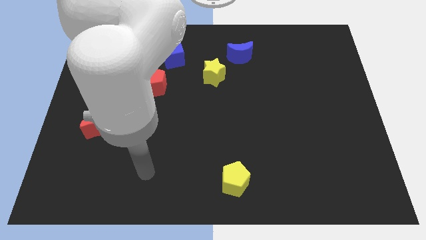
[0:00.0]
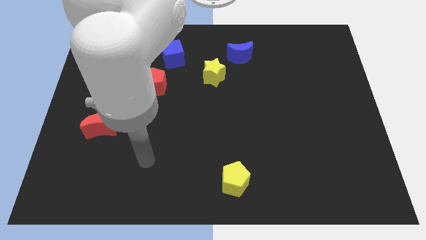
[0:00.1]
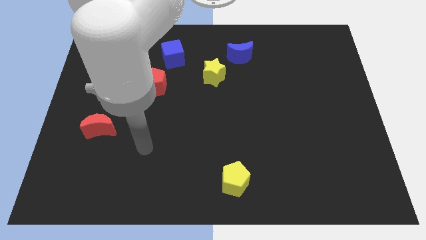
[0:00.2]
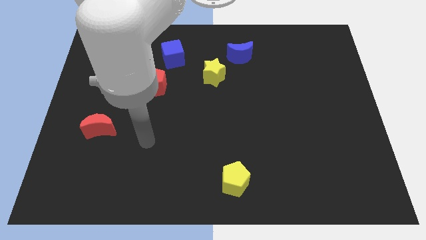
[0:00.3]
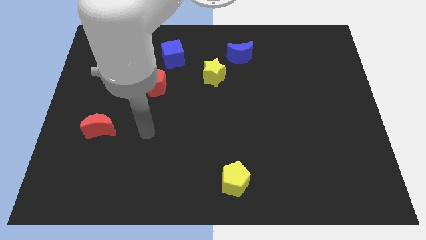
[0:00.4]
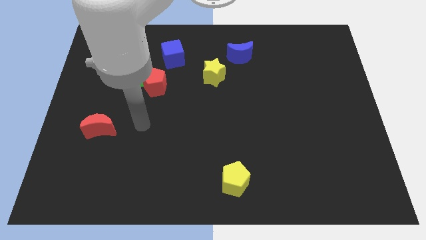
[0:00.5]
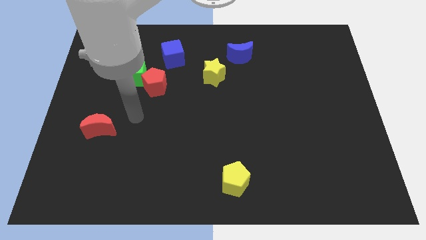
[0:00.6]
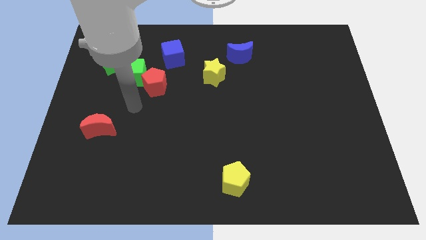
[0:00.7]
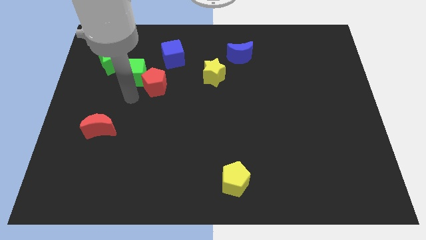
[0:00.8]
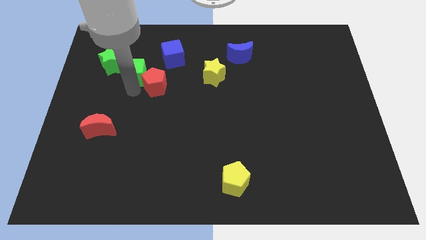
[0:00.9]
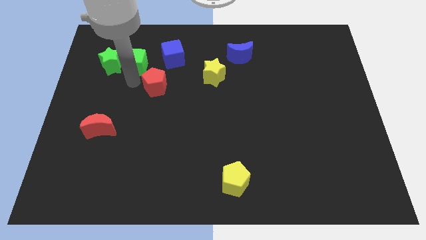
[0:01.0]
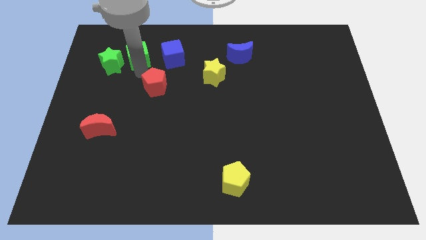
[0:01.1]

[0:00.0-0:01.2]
move the red pentagon away from the green cube

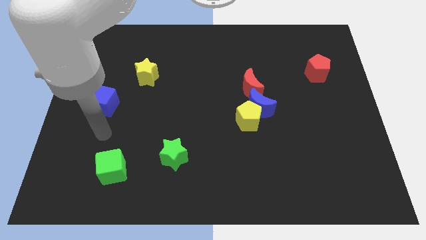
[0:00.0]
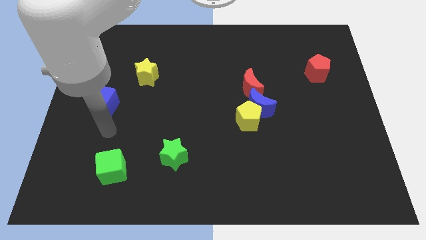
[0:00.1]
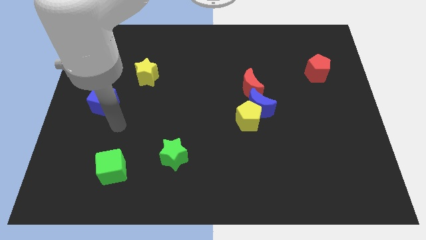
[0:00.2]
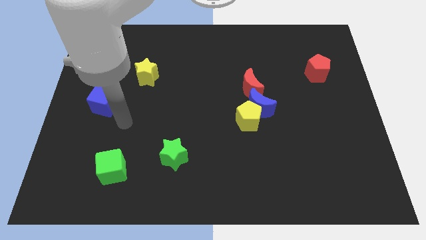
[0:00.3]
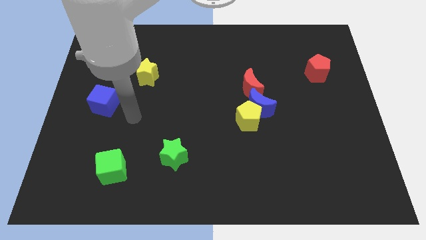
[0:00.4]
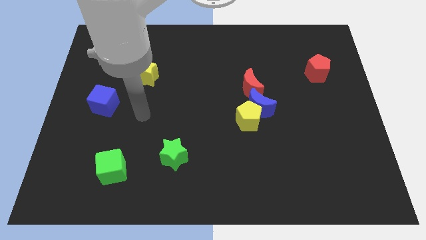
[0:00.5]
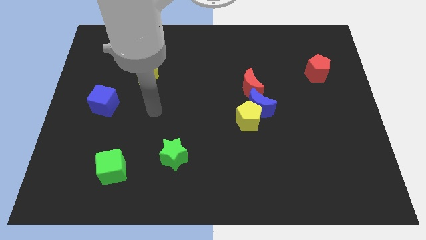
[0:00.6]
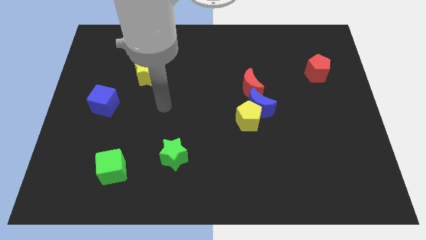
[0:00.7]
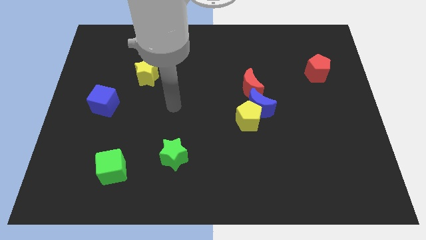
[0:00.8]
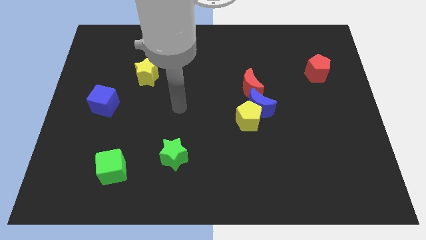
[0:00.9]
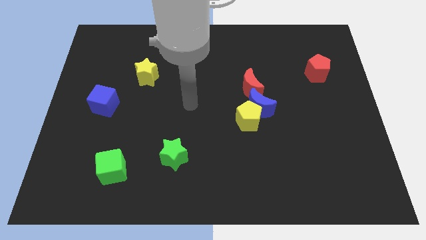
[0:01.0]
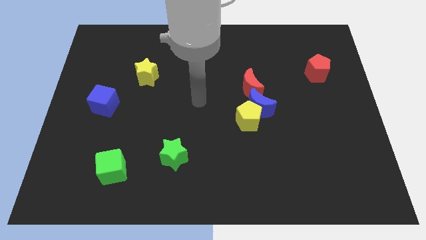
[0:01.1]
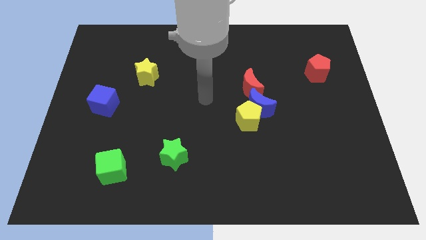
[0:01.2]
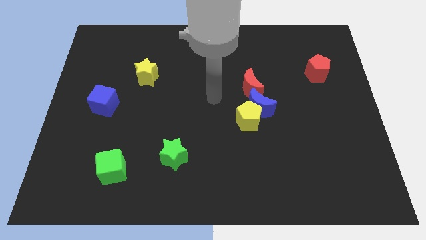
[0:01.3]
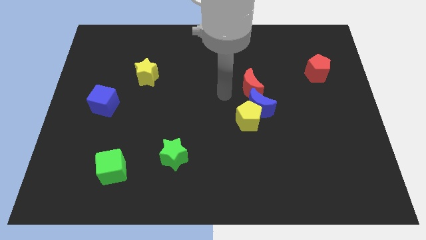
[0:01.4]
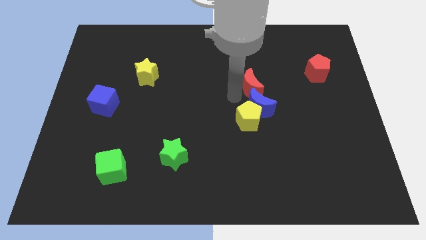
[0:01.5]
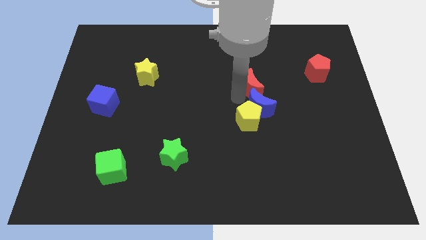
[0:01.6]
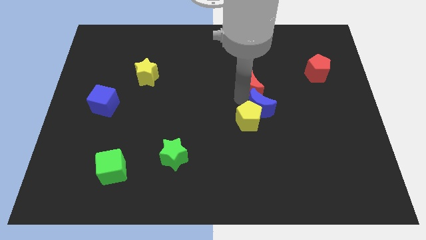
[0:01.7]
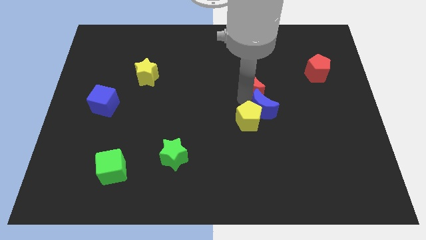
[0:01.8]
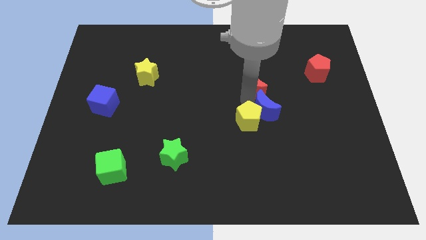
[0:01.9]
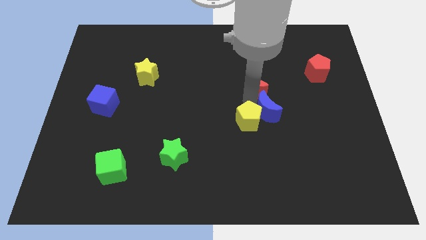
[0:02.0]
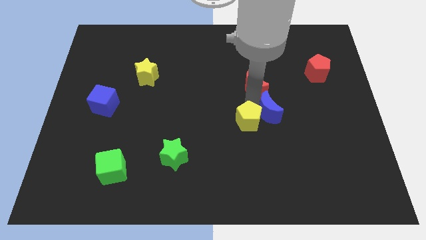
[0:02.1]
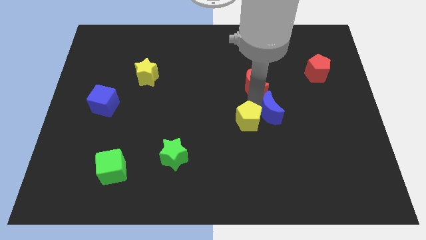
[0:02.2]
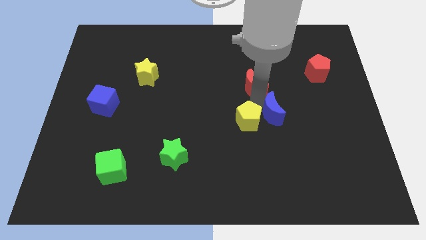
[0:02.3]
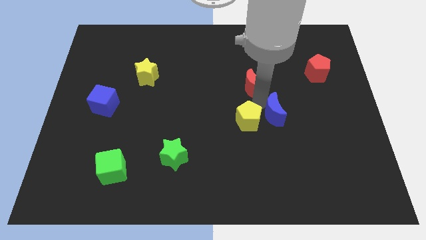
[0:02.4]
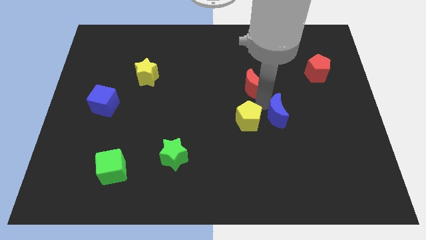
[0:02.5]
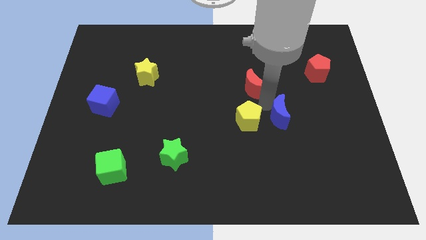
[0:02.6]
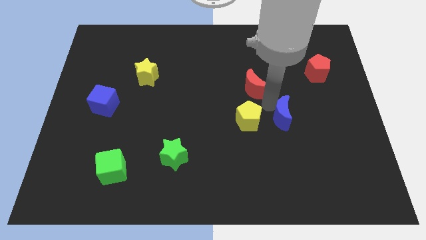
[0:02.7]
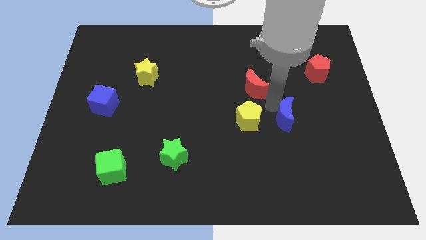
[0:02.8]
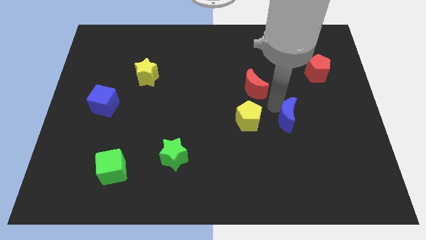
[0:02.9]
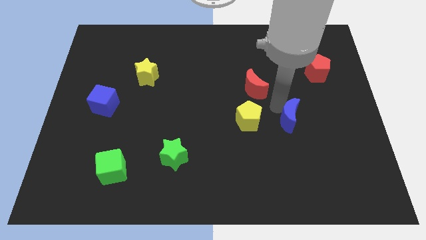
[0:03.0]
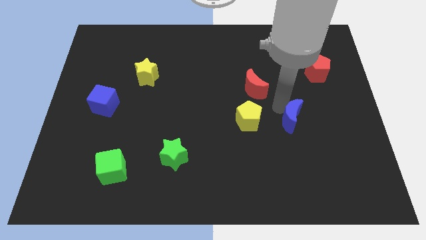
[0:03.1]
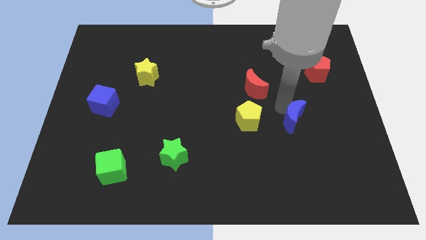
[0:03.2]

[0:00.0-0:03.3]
move the blue moon away from the yellow pentagon and red moon

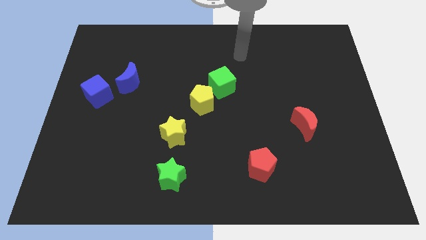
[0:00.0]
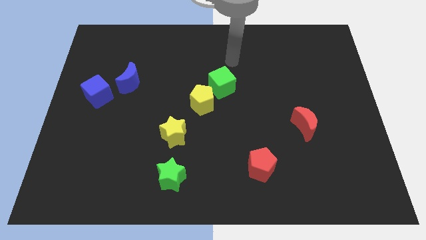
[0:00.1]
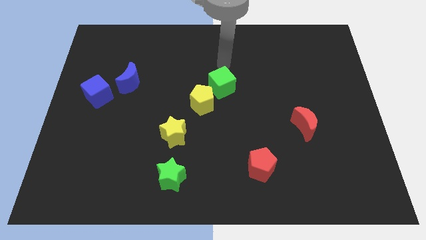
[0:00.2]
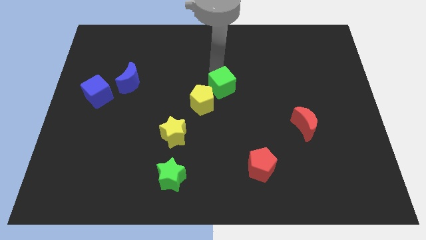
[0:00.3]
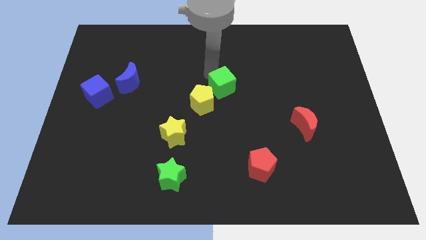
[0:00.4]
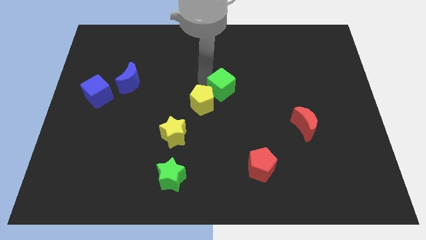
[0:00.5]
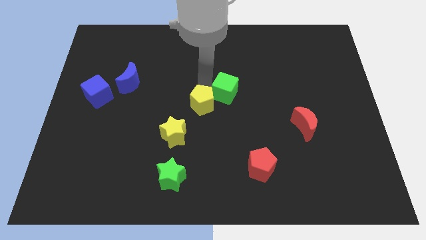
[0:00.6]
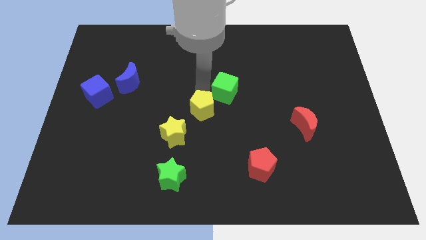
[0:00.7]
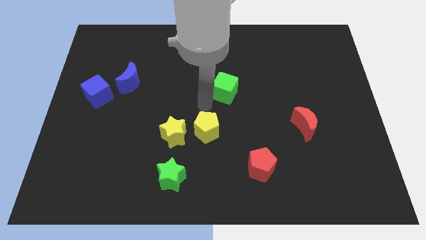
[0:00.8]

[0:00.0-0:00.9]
separate the green cube from the yellow pentagon

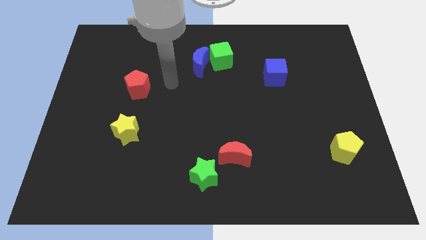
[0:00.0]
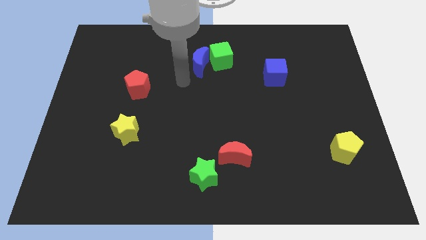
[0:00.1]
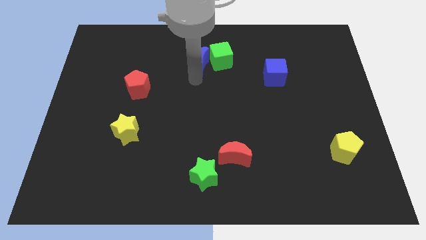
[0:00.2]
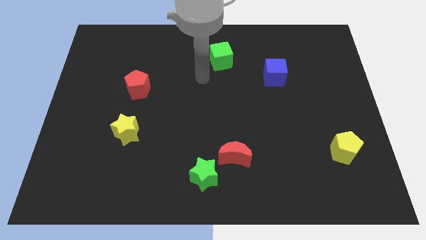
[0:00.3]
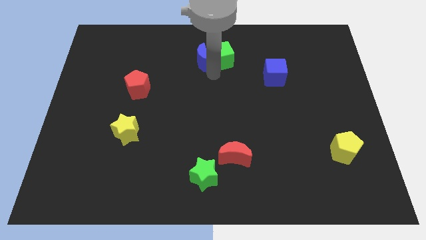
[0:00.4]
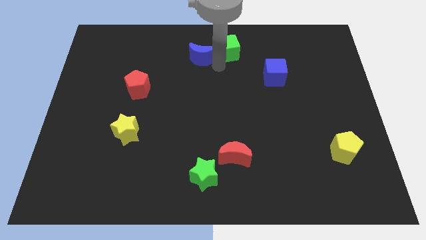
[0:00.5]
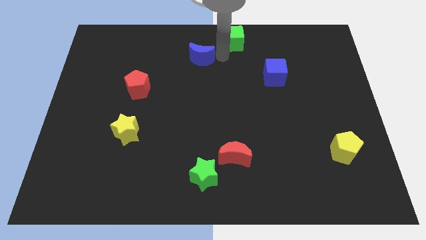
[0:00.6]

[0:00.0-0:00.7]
move the blue moon away from the green cube

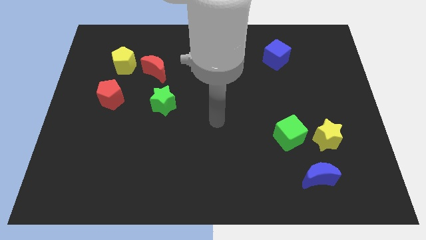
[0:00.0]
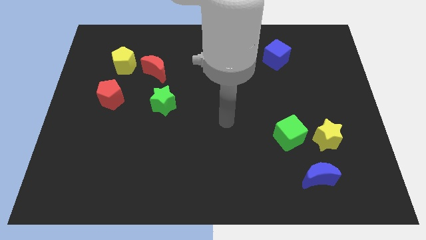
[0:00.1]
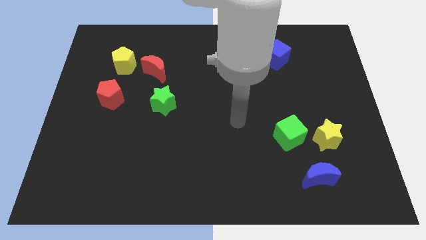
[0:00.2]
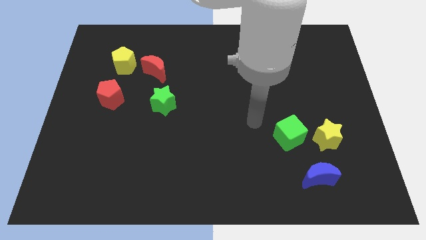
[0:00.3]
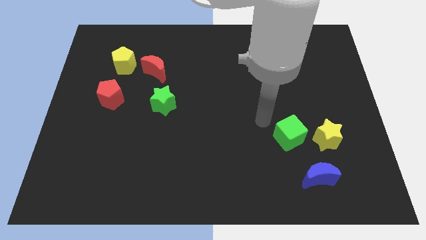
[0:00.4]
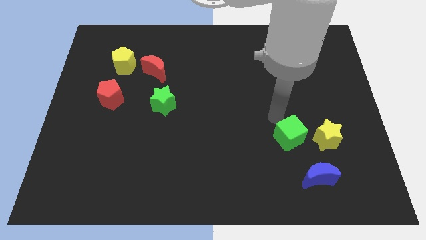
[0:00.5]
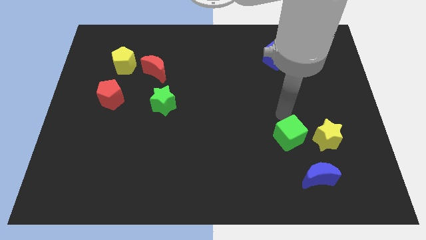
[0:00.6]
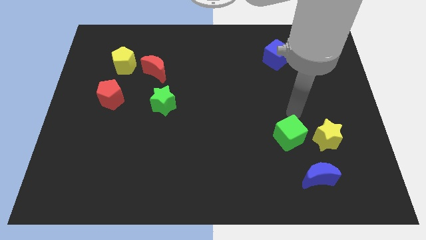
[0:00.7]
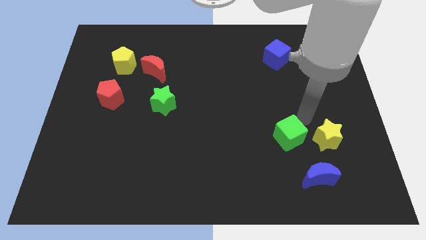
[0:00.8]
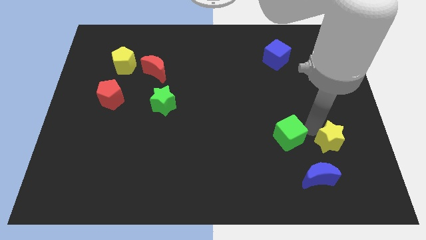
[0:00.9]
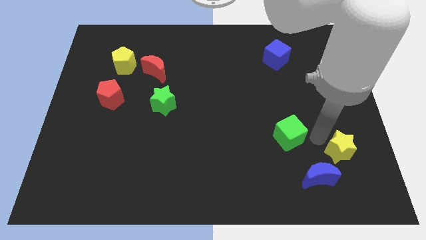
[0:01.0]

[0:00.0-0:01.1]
separate the green cube from the yellow star

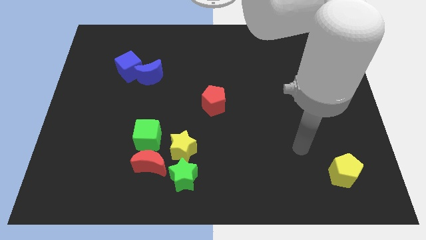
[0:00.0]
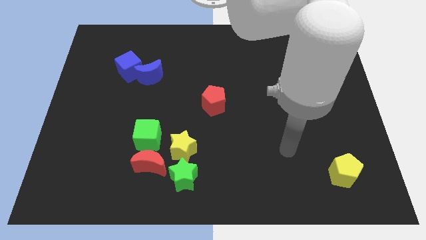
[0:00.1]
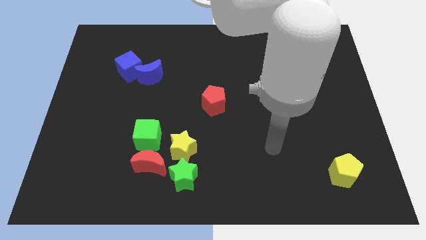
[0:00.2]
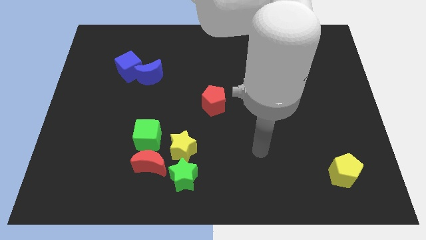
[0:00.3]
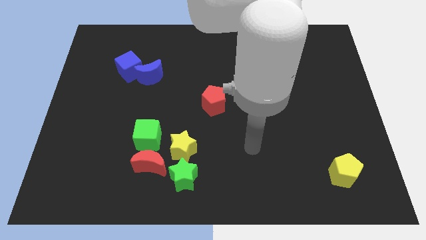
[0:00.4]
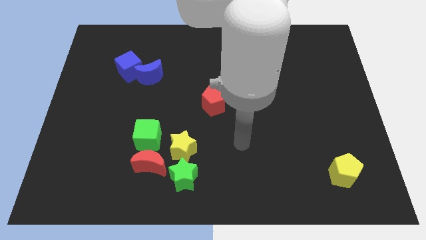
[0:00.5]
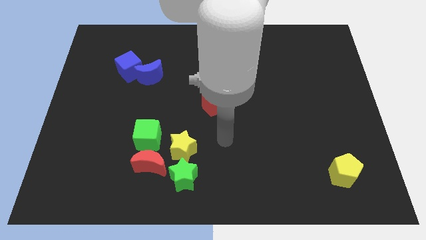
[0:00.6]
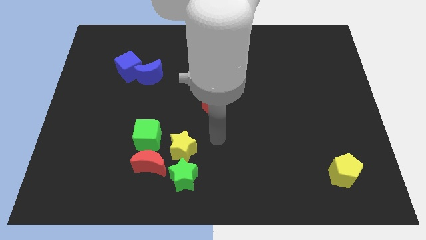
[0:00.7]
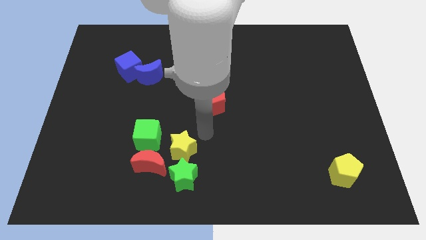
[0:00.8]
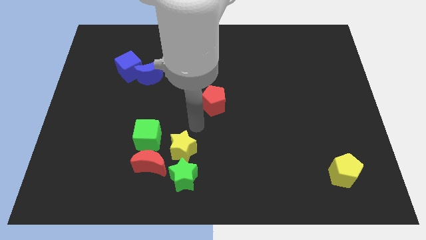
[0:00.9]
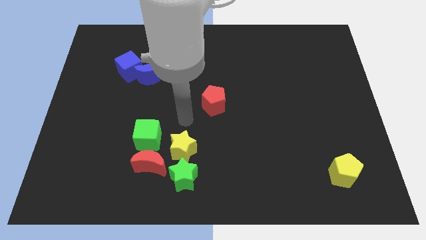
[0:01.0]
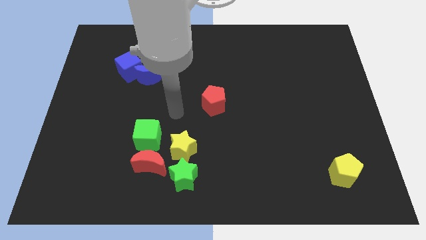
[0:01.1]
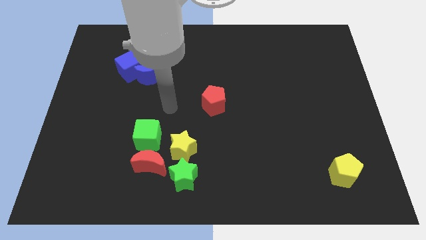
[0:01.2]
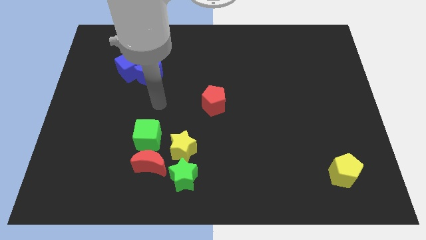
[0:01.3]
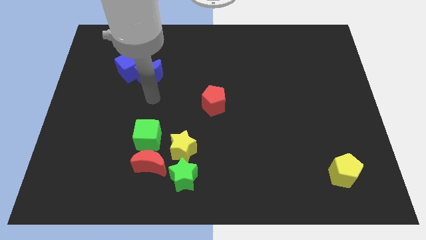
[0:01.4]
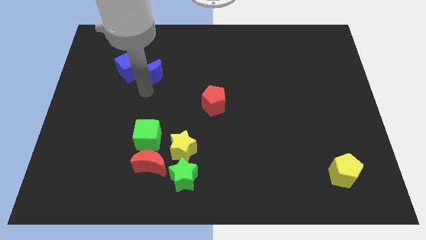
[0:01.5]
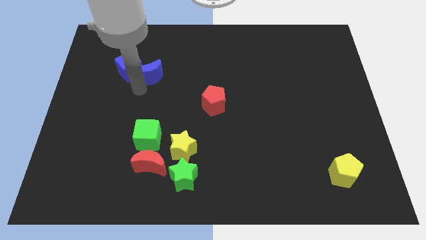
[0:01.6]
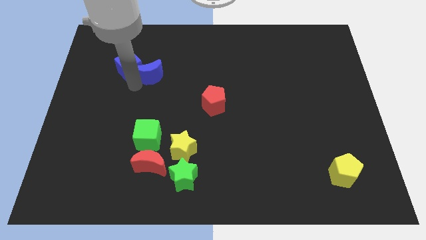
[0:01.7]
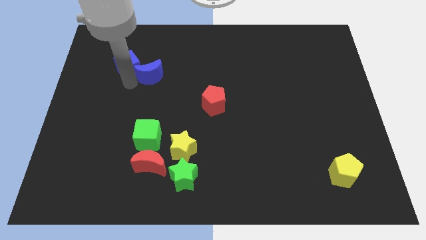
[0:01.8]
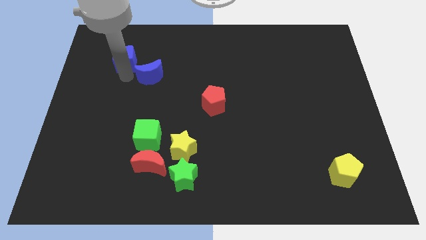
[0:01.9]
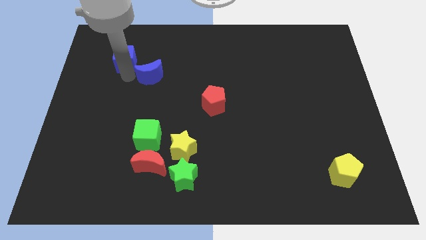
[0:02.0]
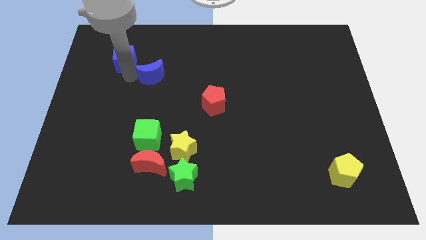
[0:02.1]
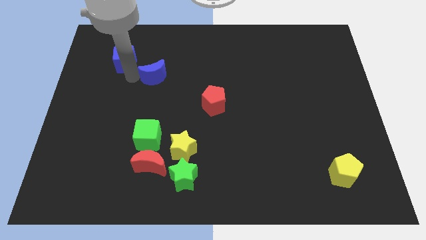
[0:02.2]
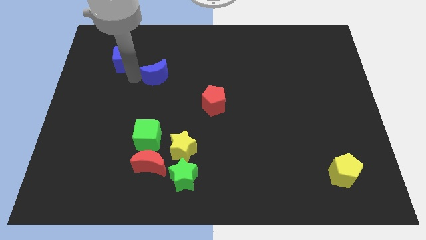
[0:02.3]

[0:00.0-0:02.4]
separate the blue moon from the blue cube
